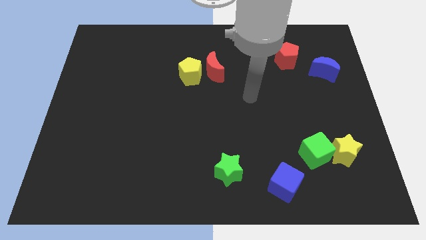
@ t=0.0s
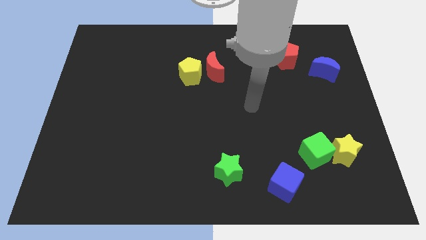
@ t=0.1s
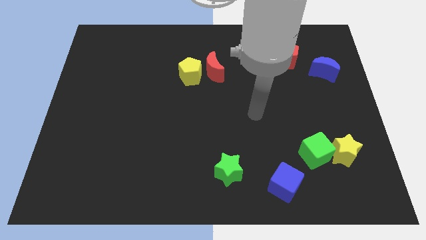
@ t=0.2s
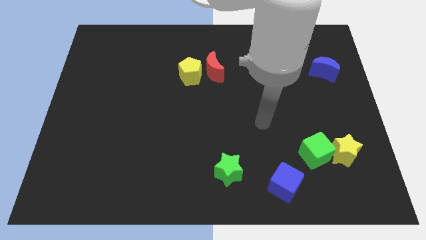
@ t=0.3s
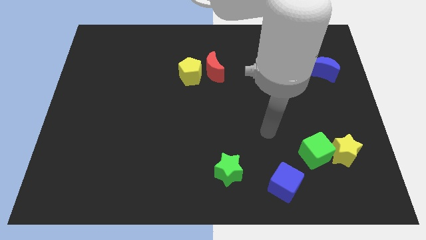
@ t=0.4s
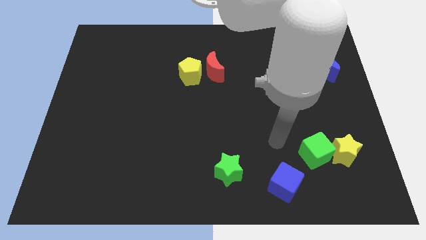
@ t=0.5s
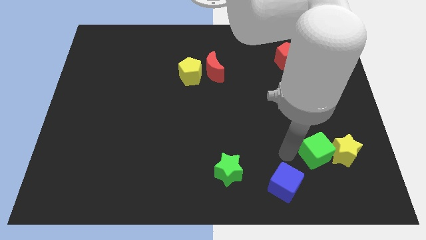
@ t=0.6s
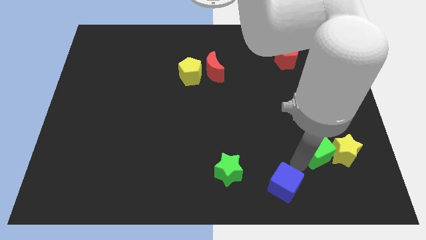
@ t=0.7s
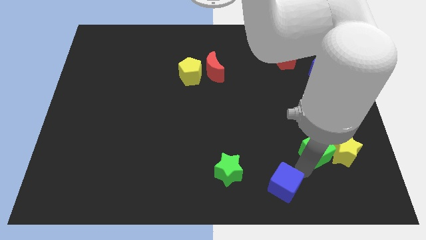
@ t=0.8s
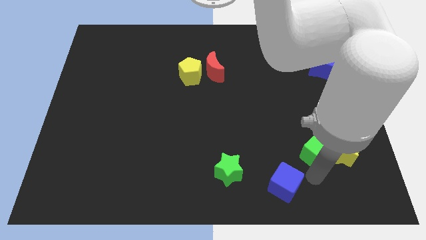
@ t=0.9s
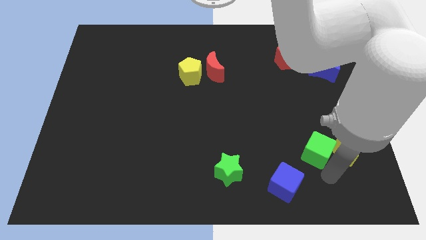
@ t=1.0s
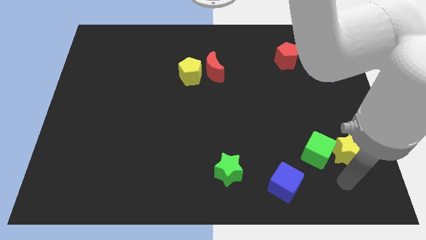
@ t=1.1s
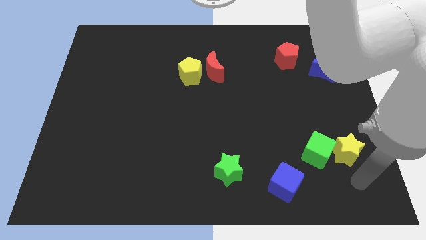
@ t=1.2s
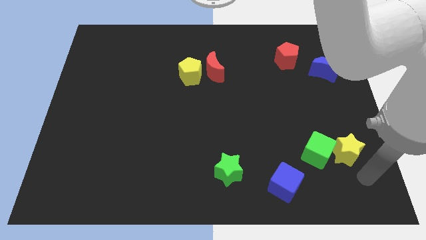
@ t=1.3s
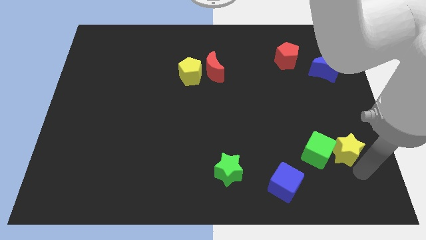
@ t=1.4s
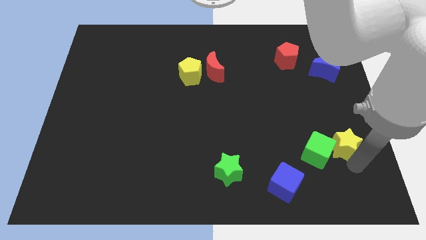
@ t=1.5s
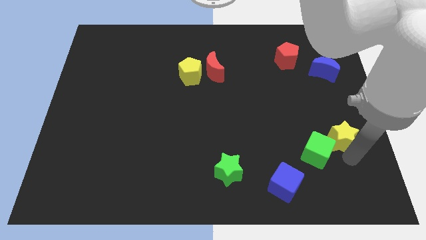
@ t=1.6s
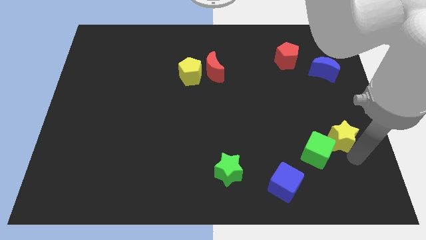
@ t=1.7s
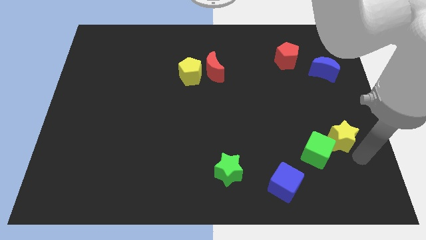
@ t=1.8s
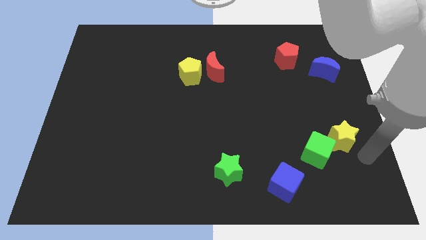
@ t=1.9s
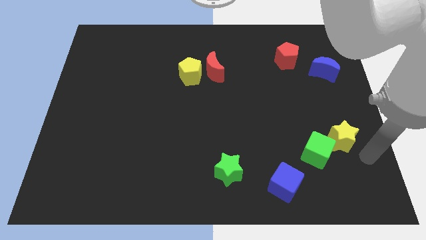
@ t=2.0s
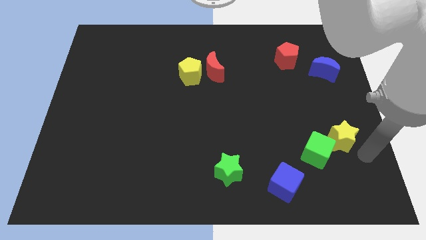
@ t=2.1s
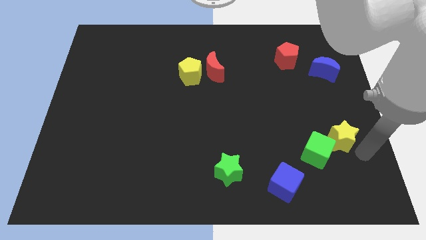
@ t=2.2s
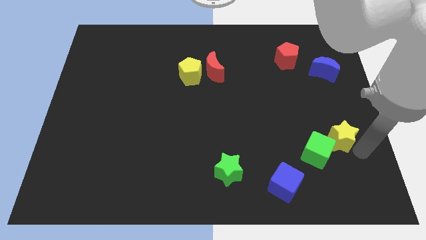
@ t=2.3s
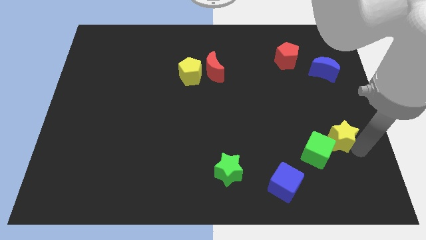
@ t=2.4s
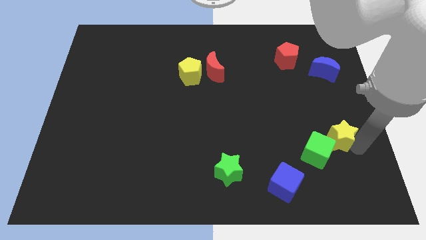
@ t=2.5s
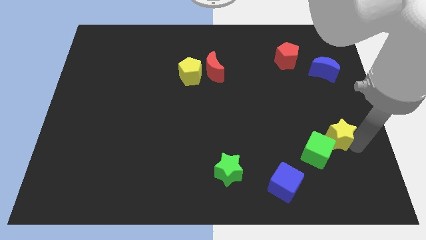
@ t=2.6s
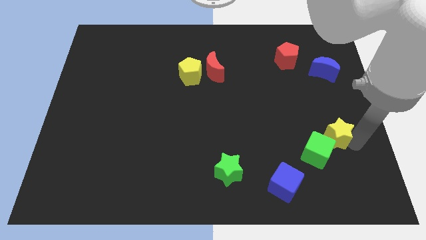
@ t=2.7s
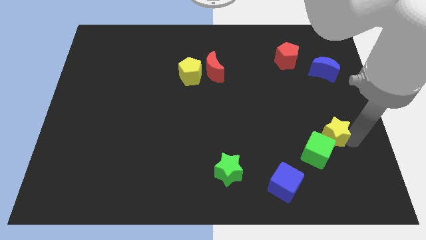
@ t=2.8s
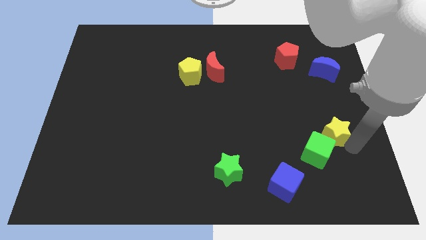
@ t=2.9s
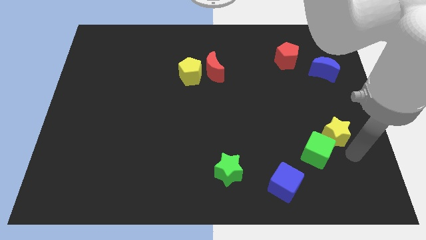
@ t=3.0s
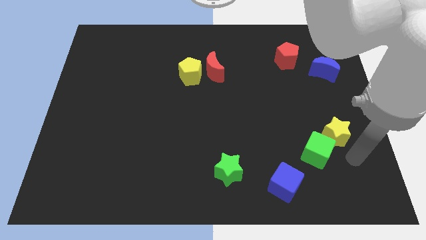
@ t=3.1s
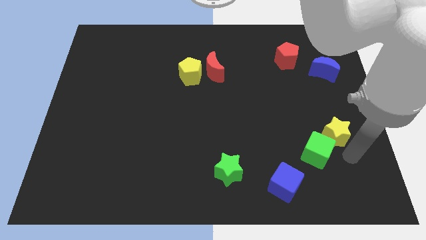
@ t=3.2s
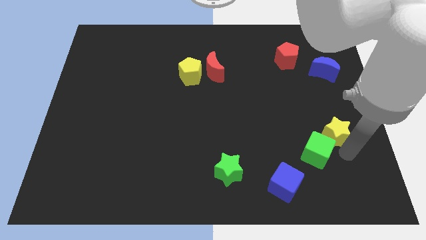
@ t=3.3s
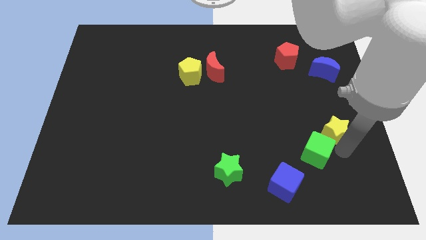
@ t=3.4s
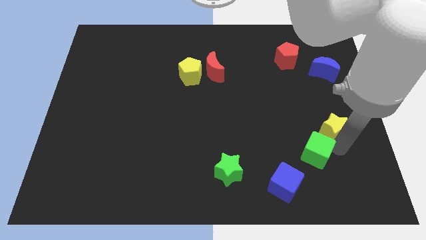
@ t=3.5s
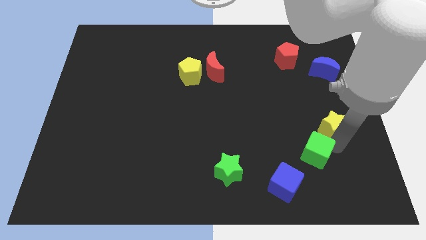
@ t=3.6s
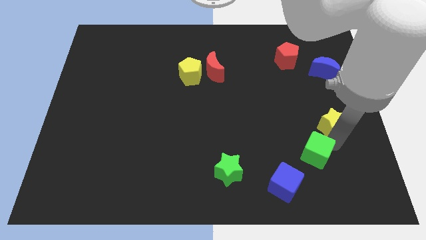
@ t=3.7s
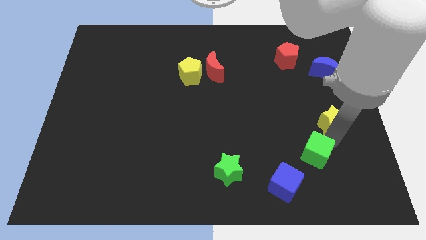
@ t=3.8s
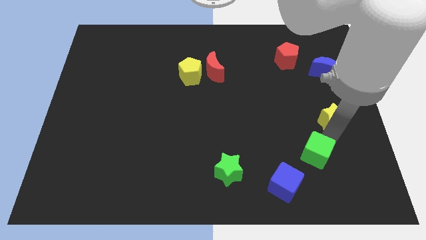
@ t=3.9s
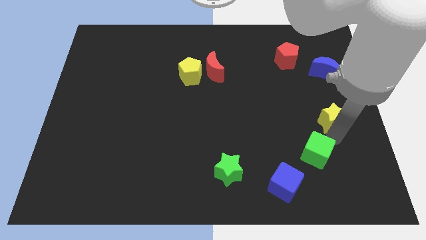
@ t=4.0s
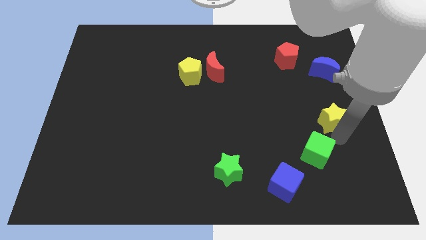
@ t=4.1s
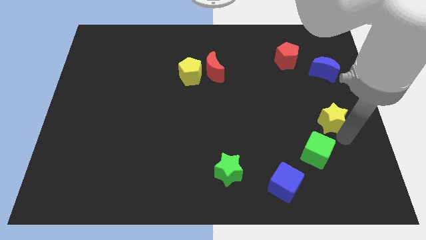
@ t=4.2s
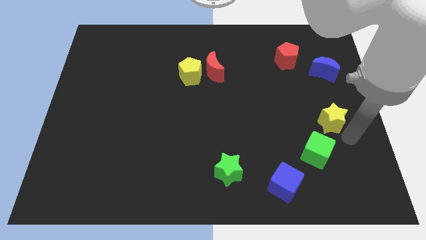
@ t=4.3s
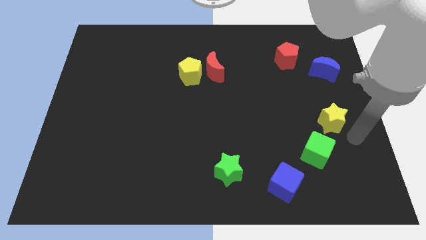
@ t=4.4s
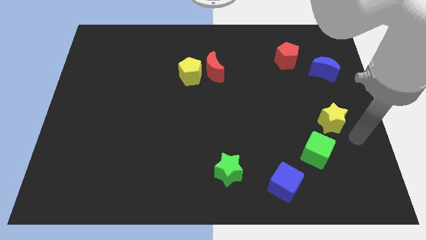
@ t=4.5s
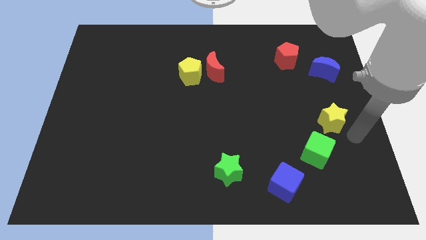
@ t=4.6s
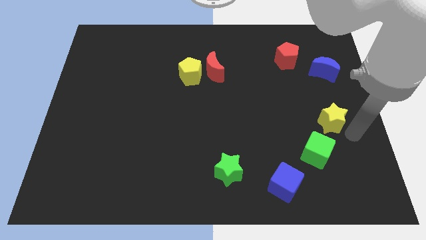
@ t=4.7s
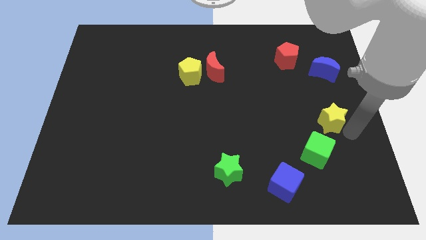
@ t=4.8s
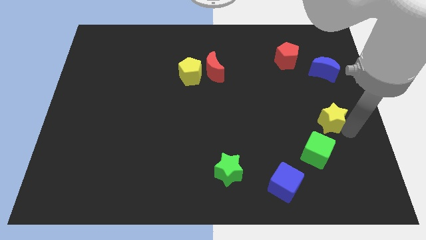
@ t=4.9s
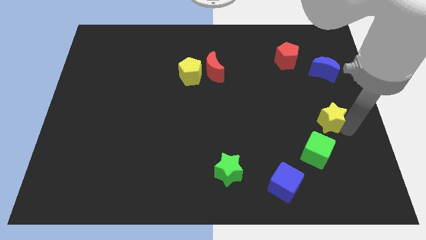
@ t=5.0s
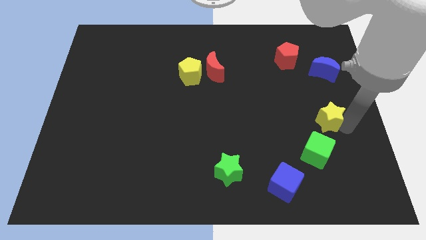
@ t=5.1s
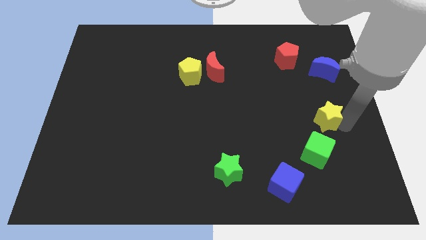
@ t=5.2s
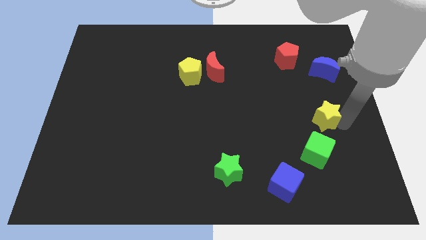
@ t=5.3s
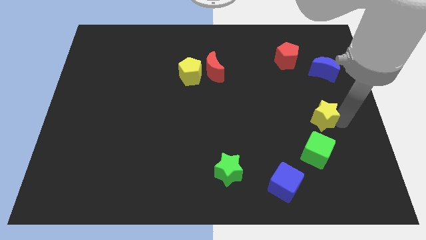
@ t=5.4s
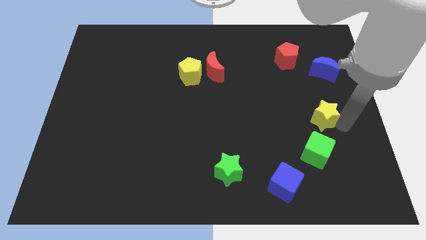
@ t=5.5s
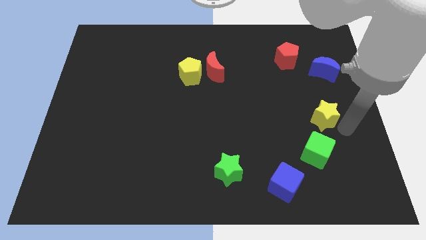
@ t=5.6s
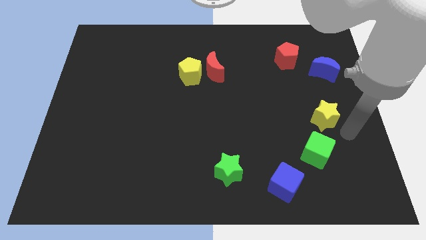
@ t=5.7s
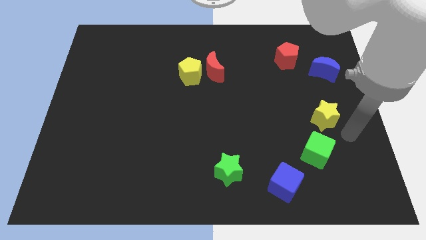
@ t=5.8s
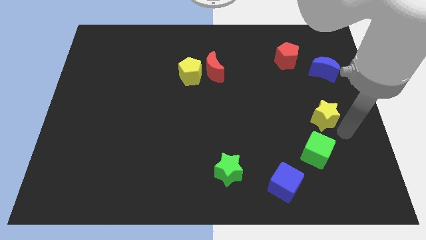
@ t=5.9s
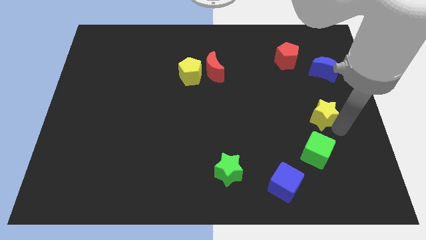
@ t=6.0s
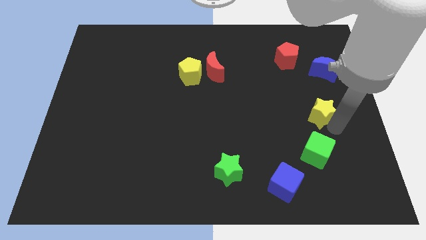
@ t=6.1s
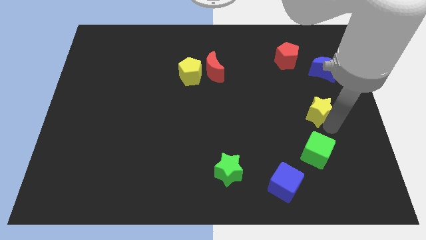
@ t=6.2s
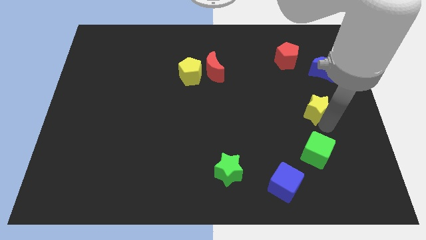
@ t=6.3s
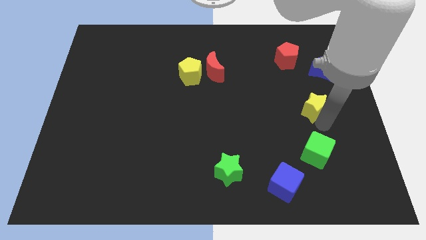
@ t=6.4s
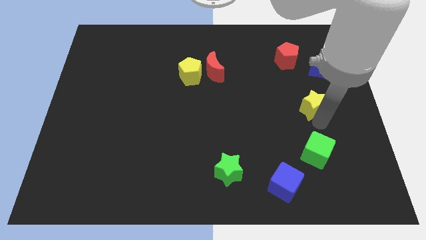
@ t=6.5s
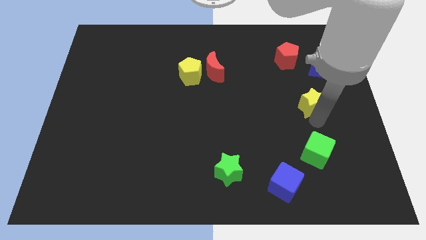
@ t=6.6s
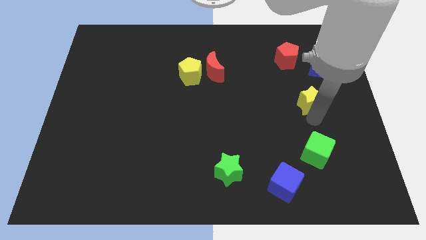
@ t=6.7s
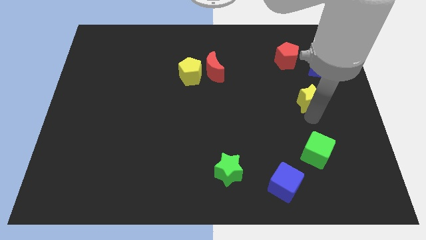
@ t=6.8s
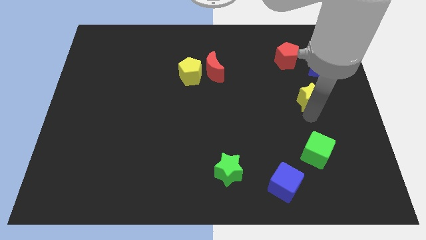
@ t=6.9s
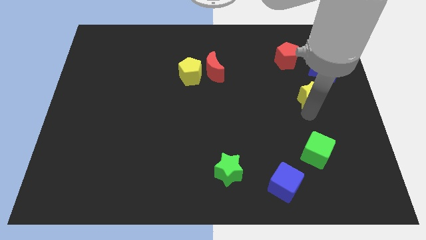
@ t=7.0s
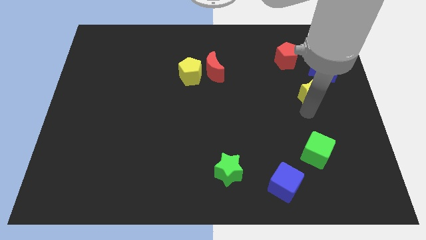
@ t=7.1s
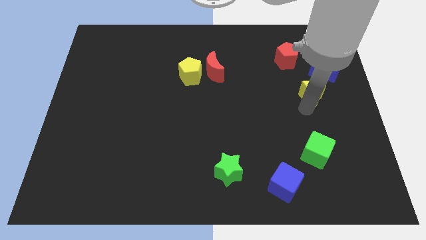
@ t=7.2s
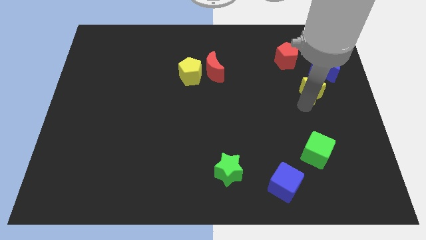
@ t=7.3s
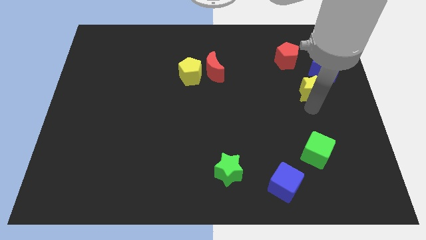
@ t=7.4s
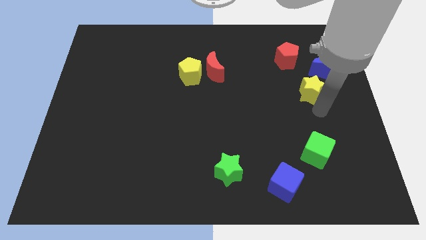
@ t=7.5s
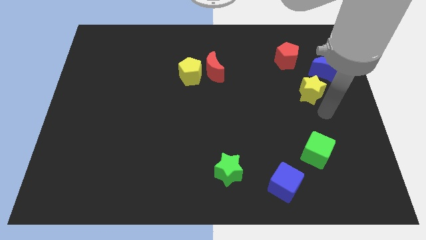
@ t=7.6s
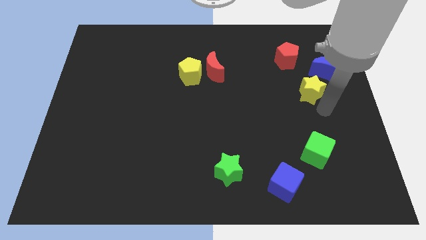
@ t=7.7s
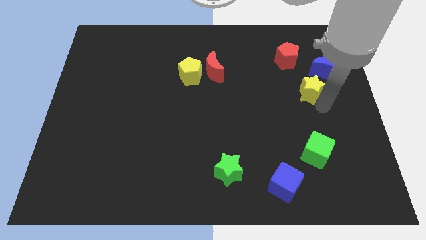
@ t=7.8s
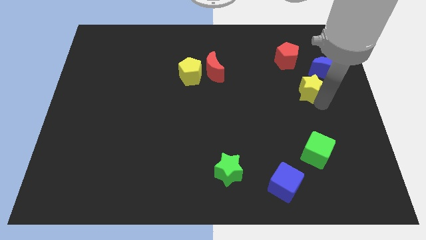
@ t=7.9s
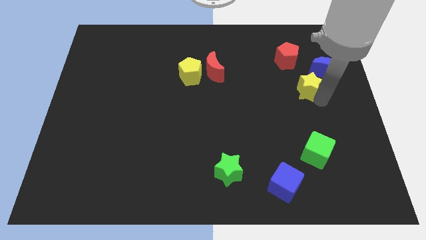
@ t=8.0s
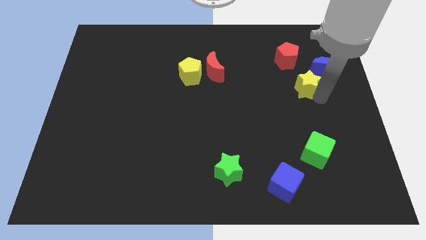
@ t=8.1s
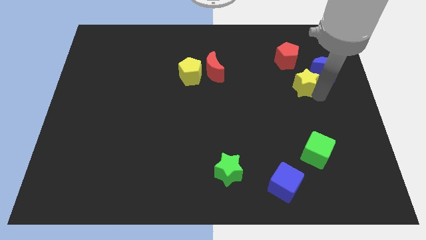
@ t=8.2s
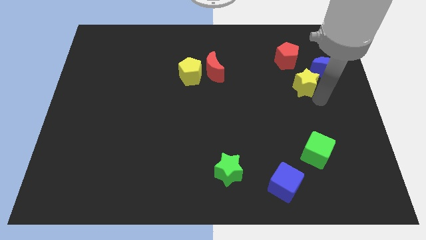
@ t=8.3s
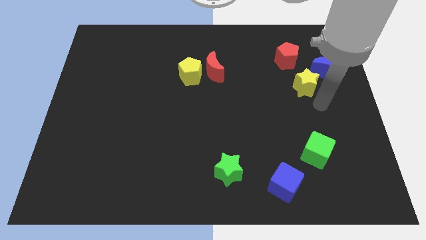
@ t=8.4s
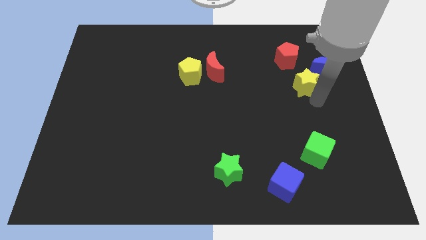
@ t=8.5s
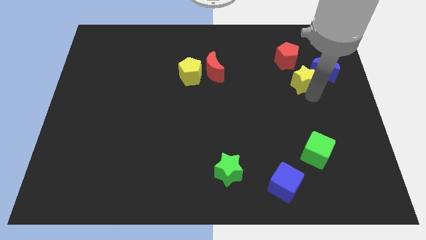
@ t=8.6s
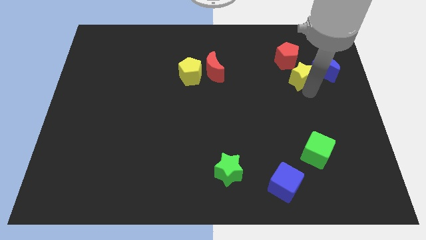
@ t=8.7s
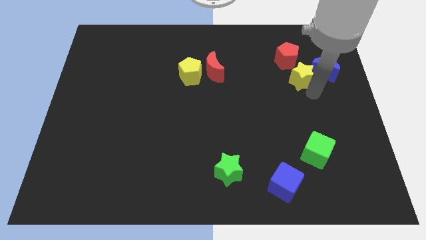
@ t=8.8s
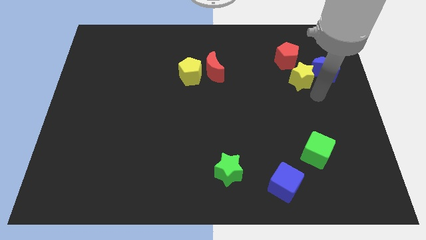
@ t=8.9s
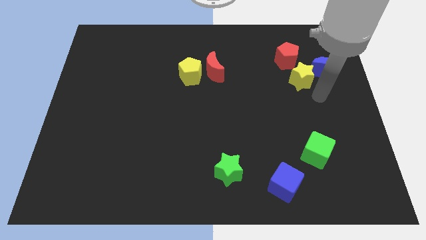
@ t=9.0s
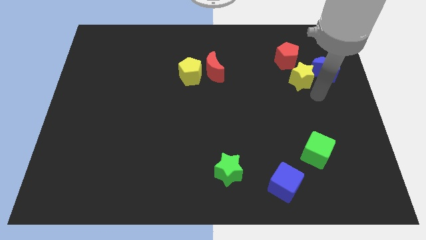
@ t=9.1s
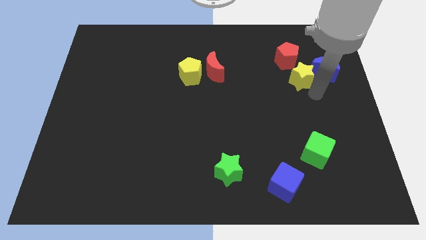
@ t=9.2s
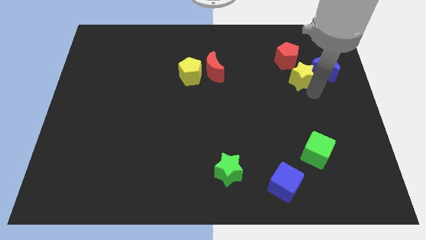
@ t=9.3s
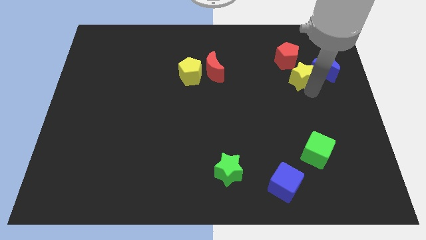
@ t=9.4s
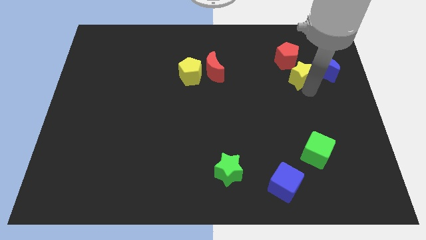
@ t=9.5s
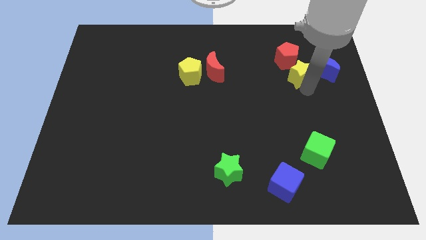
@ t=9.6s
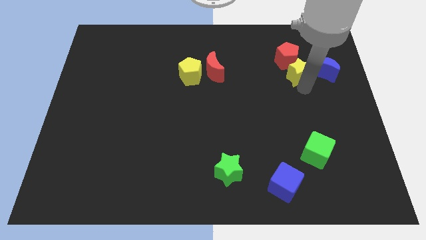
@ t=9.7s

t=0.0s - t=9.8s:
slide the yellow star next to the red pentagon
